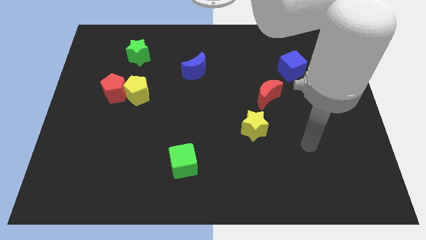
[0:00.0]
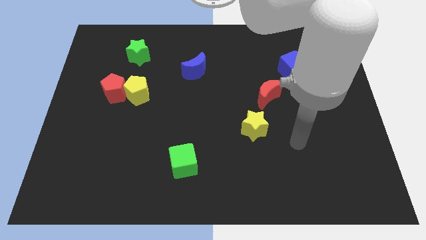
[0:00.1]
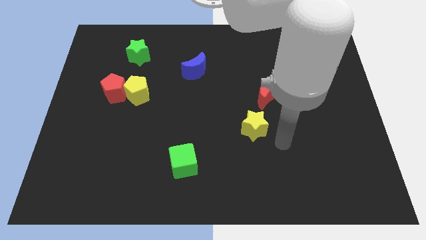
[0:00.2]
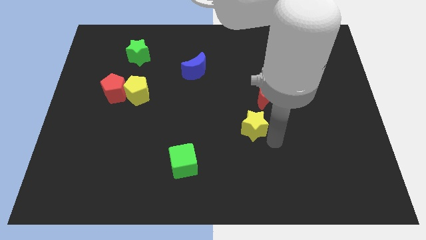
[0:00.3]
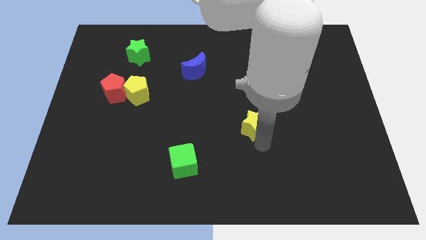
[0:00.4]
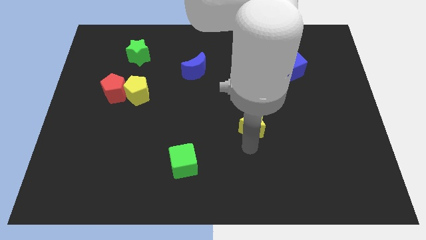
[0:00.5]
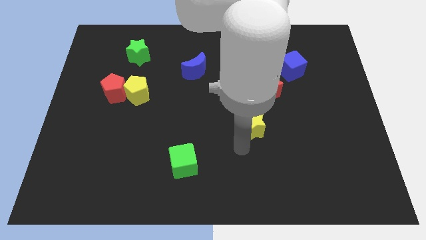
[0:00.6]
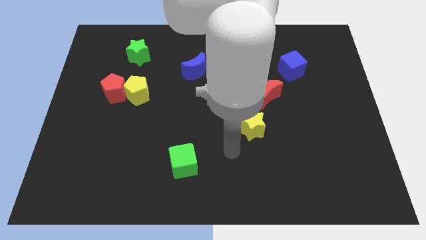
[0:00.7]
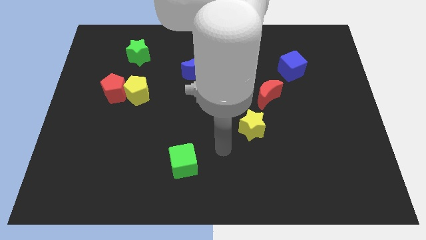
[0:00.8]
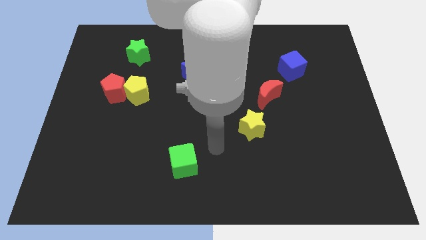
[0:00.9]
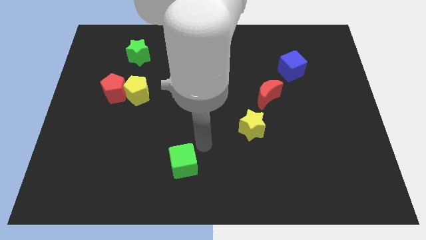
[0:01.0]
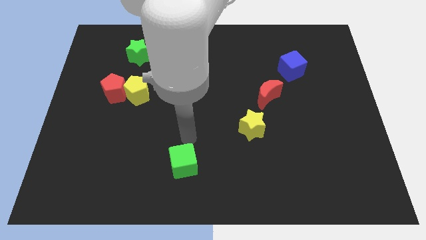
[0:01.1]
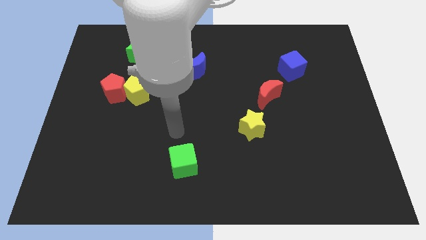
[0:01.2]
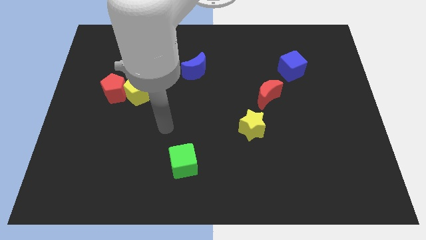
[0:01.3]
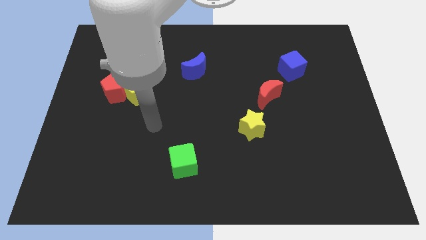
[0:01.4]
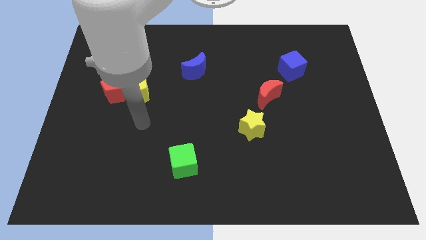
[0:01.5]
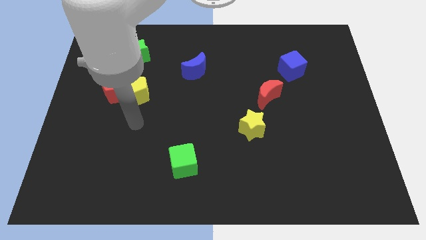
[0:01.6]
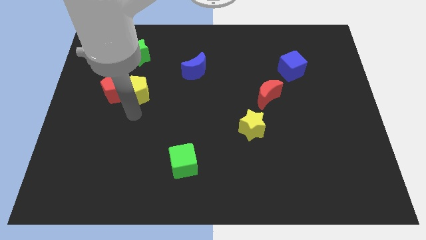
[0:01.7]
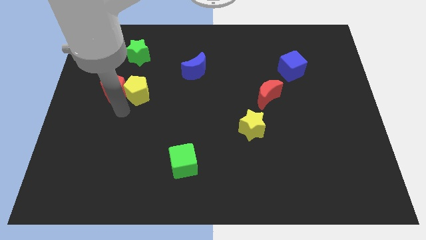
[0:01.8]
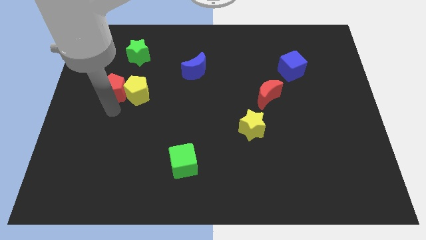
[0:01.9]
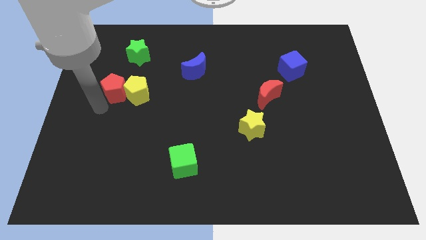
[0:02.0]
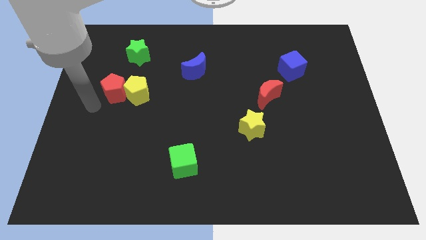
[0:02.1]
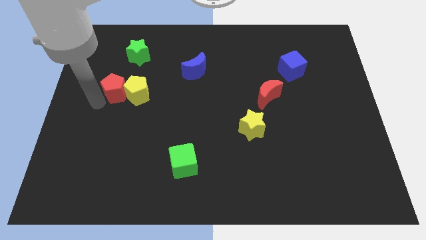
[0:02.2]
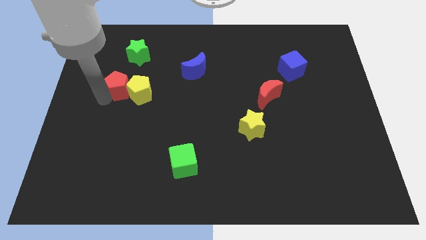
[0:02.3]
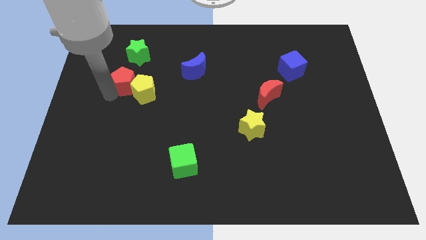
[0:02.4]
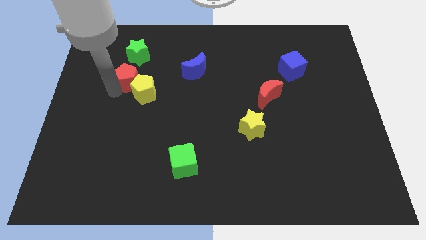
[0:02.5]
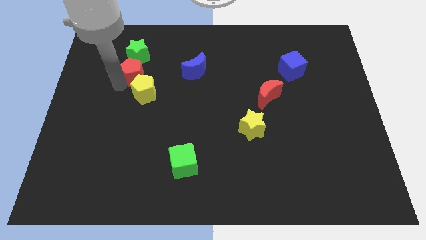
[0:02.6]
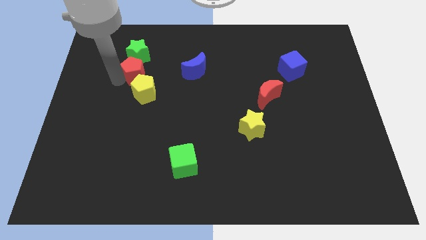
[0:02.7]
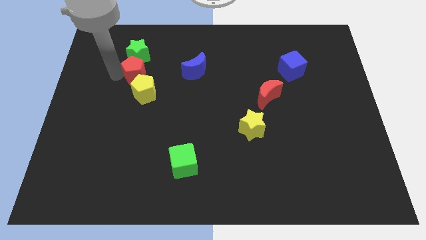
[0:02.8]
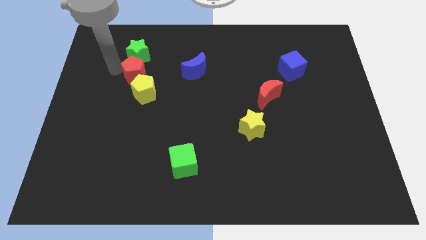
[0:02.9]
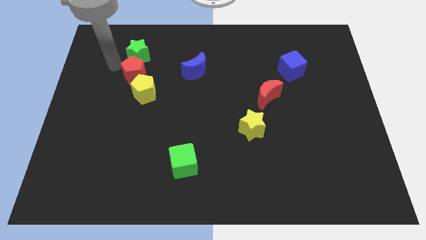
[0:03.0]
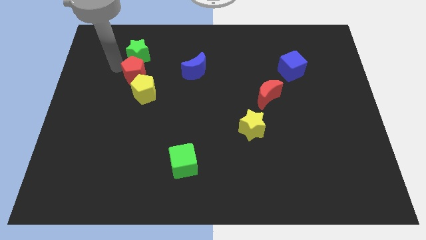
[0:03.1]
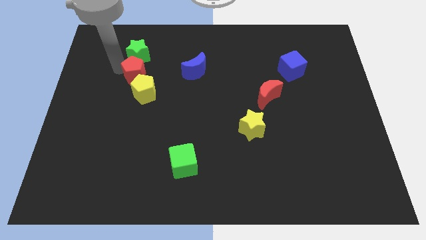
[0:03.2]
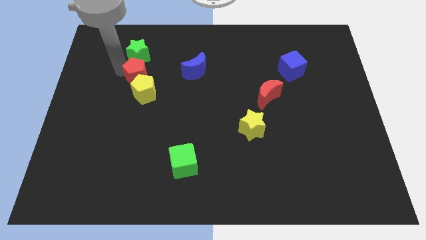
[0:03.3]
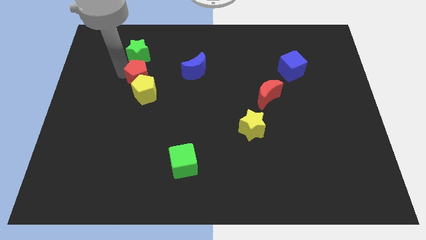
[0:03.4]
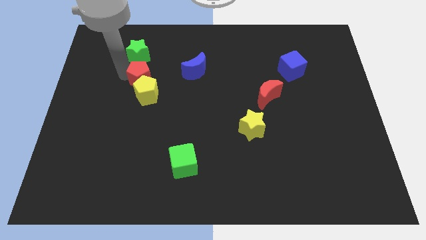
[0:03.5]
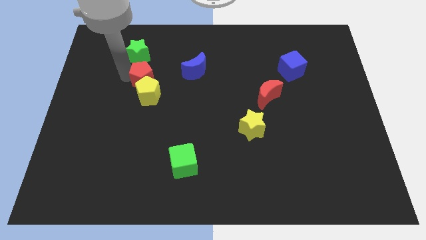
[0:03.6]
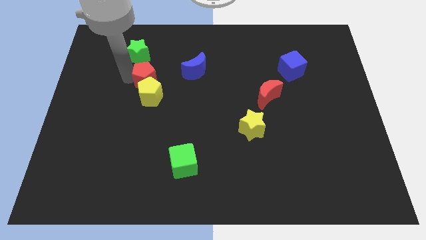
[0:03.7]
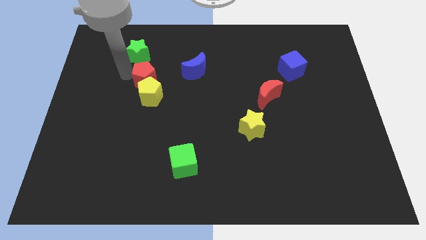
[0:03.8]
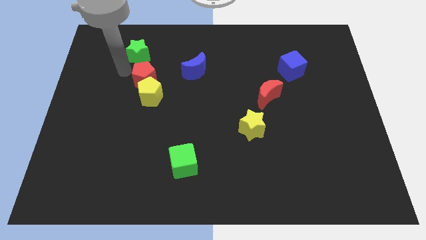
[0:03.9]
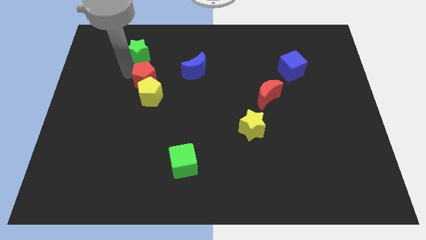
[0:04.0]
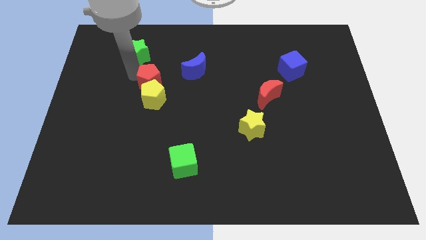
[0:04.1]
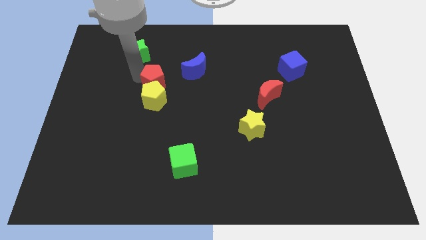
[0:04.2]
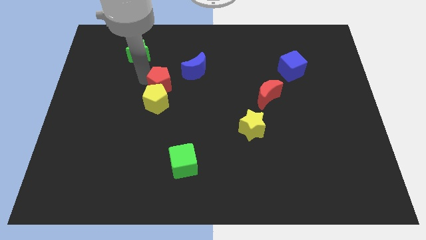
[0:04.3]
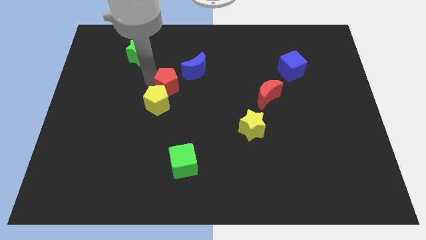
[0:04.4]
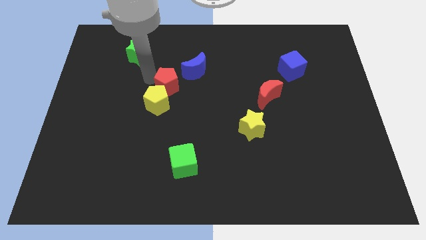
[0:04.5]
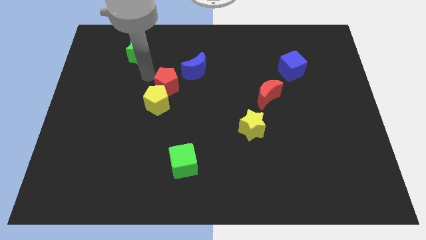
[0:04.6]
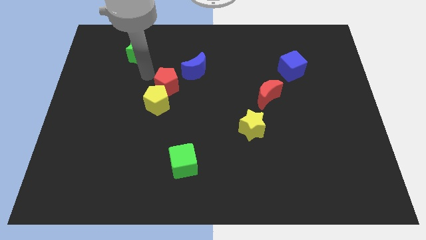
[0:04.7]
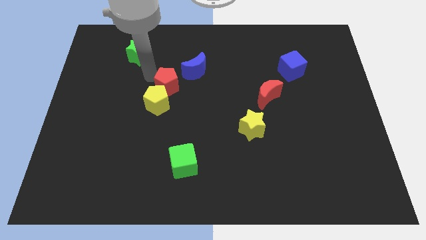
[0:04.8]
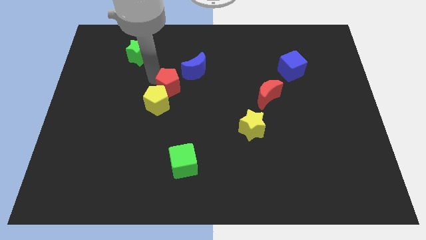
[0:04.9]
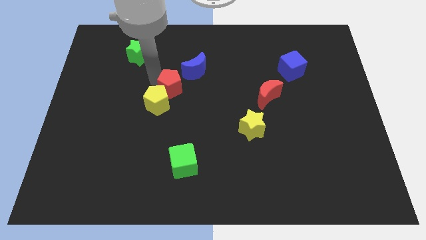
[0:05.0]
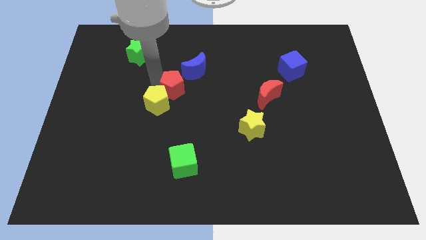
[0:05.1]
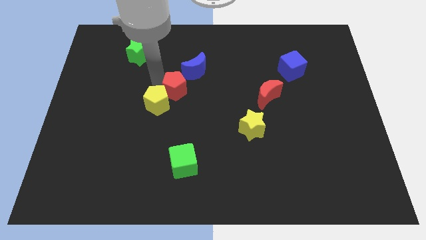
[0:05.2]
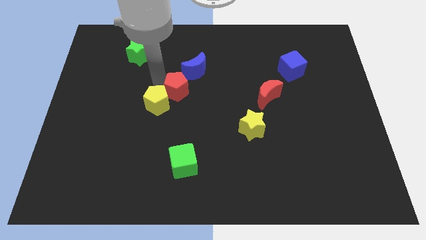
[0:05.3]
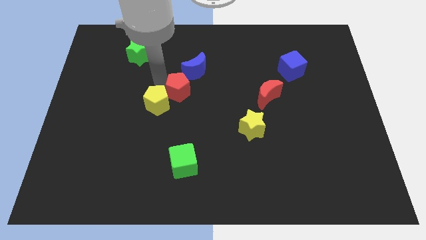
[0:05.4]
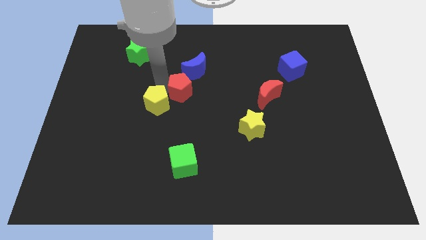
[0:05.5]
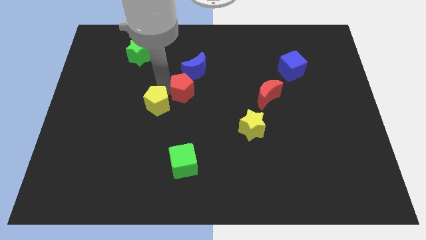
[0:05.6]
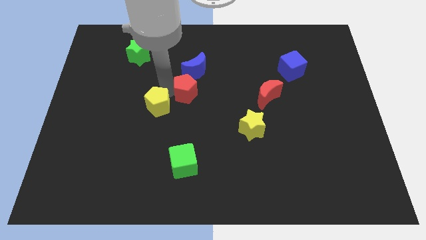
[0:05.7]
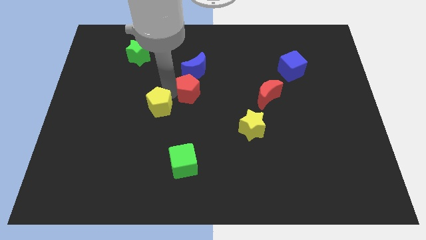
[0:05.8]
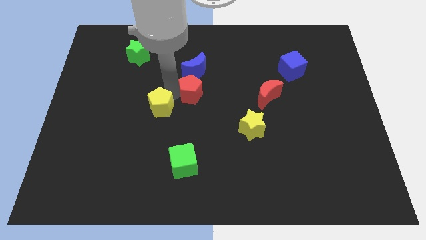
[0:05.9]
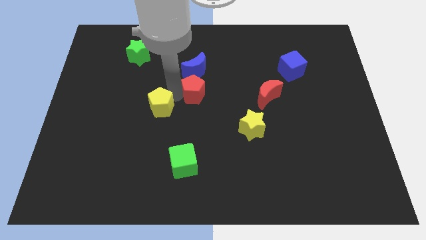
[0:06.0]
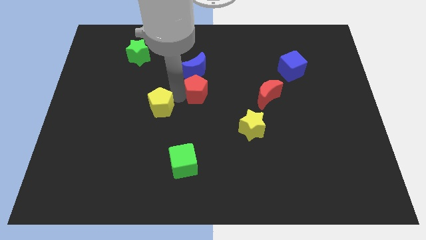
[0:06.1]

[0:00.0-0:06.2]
move the red pentagon right

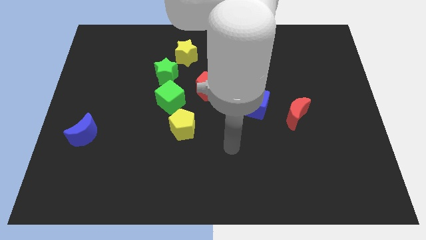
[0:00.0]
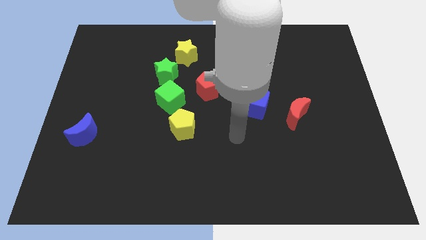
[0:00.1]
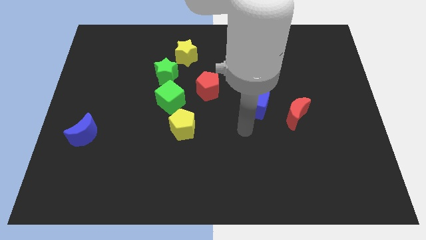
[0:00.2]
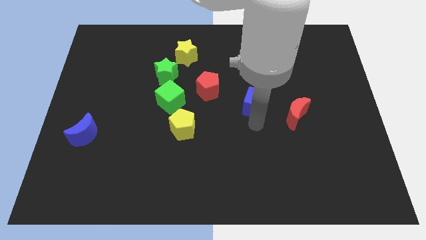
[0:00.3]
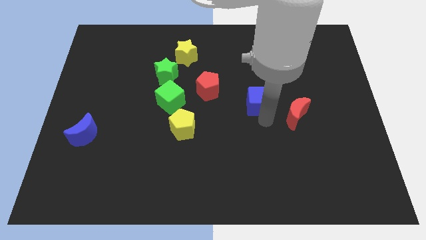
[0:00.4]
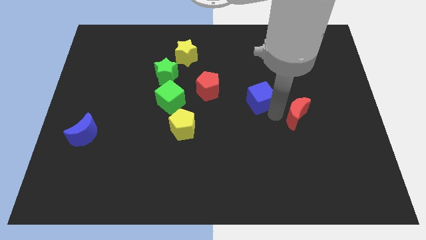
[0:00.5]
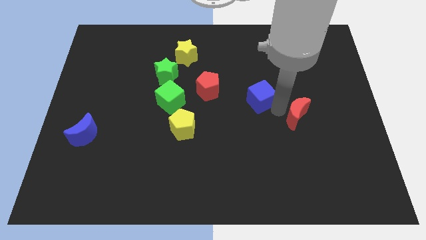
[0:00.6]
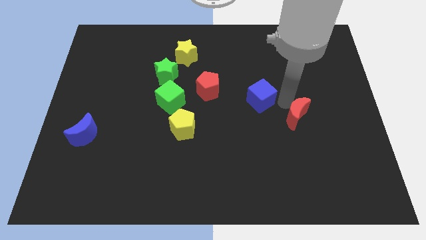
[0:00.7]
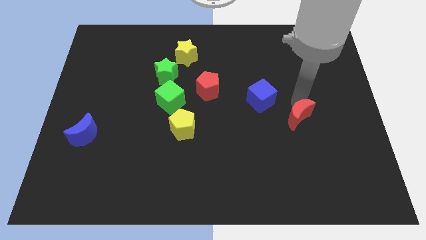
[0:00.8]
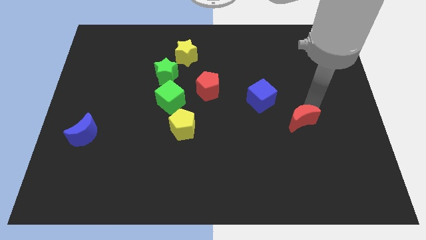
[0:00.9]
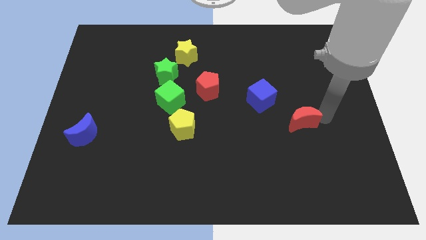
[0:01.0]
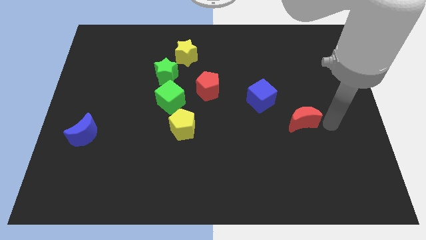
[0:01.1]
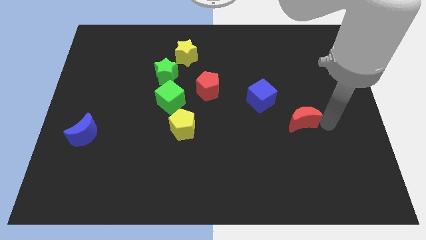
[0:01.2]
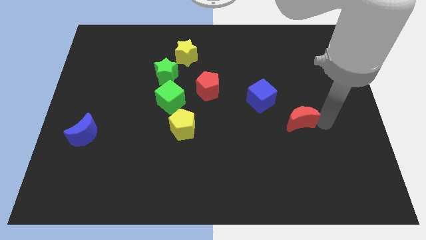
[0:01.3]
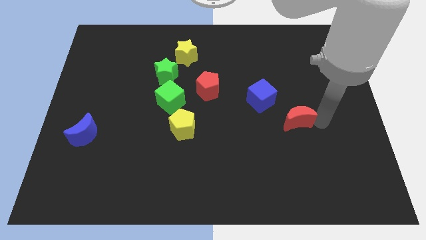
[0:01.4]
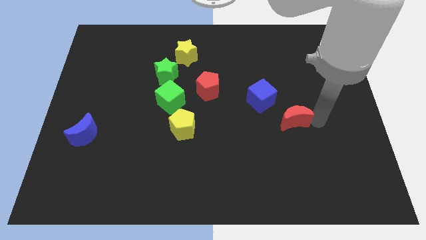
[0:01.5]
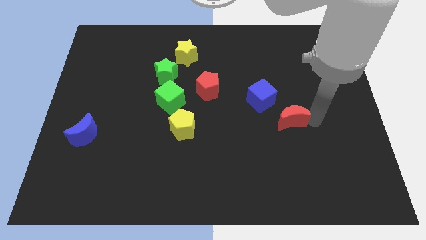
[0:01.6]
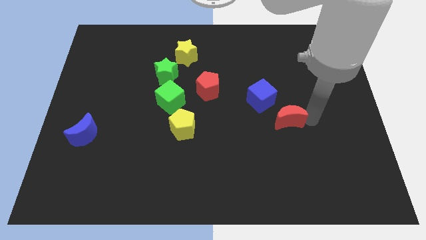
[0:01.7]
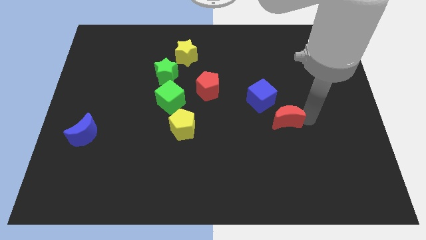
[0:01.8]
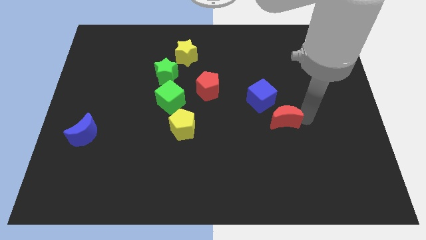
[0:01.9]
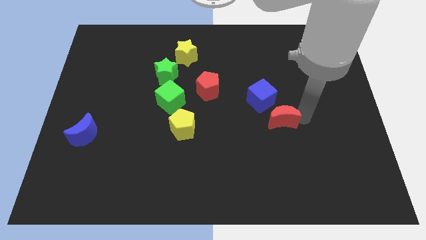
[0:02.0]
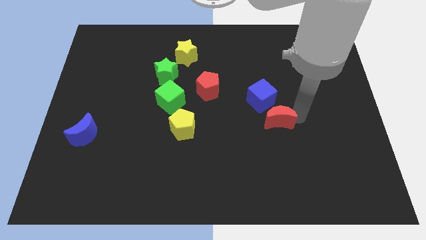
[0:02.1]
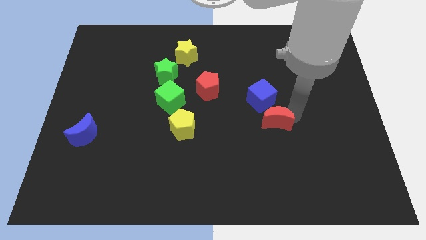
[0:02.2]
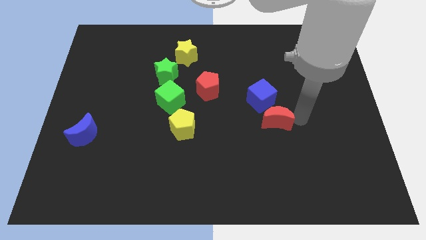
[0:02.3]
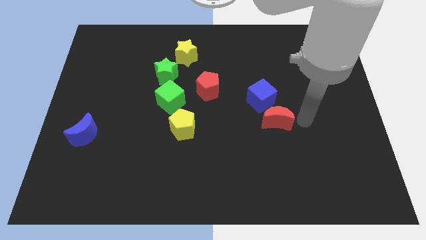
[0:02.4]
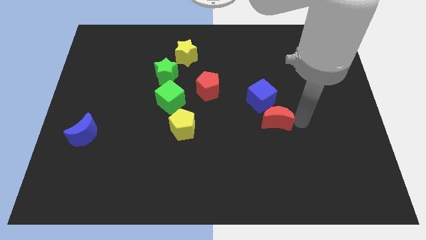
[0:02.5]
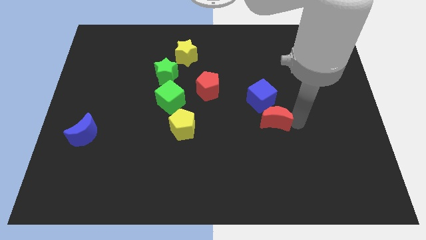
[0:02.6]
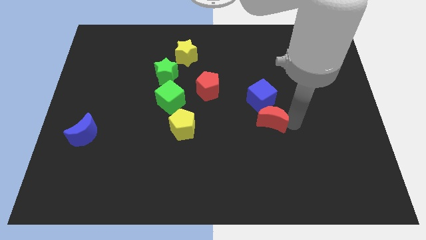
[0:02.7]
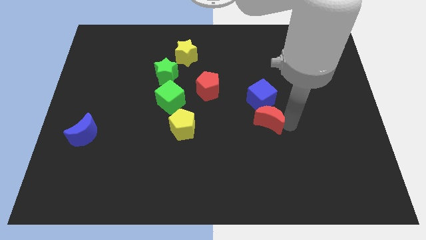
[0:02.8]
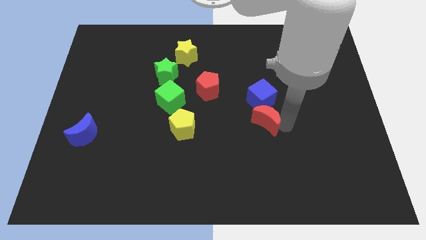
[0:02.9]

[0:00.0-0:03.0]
slightly slide the red moon left
